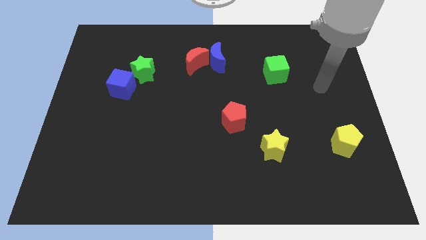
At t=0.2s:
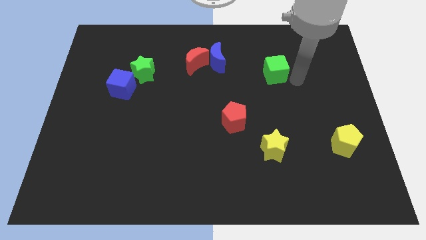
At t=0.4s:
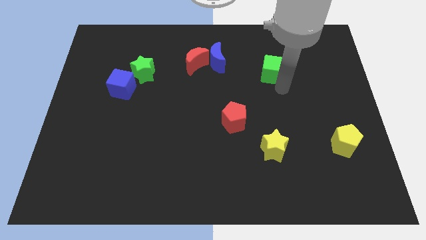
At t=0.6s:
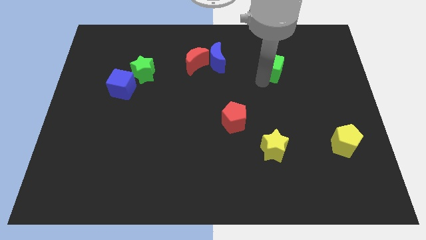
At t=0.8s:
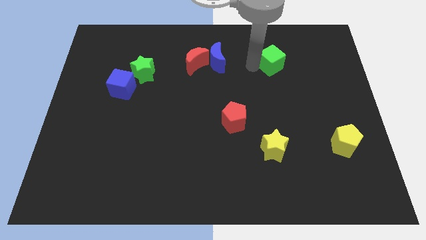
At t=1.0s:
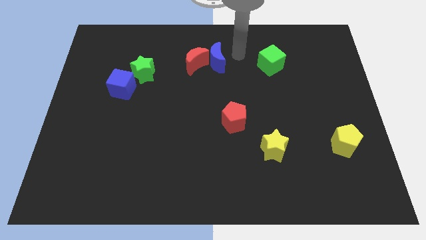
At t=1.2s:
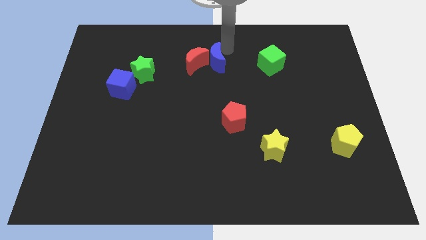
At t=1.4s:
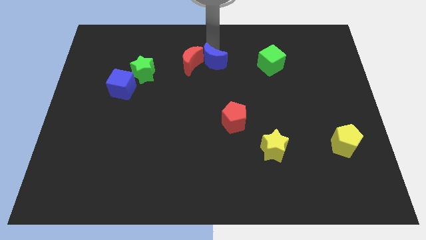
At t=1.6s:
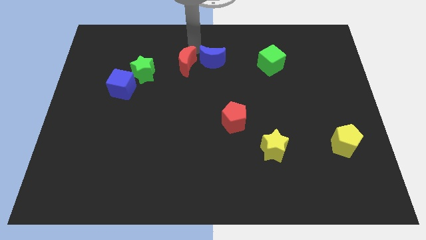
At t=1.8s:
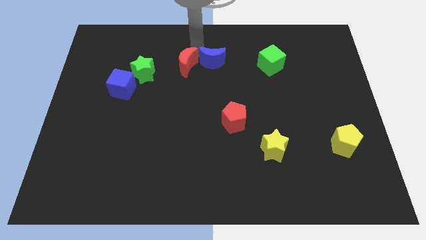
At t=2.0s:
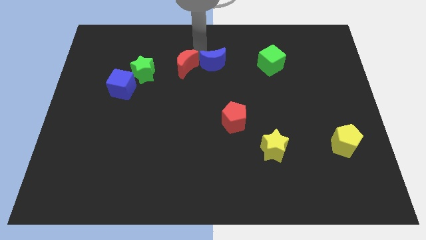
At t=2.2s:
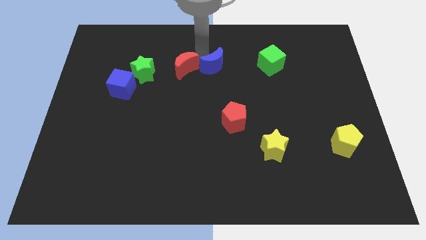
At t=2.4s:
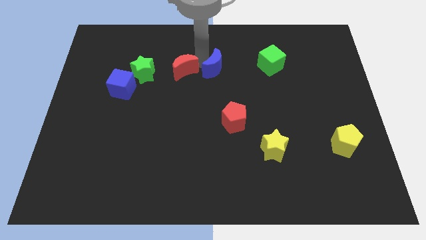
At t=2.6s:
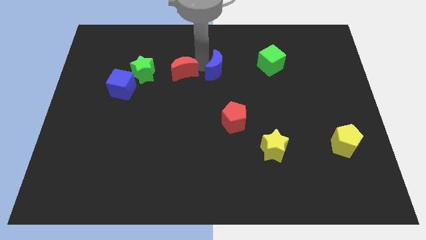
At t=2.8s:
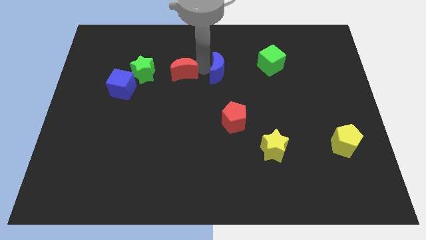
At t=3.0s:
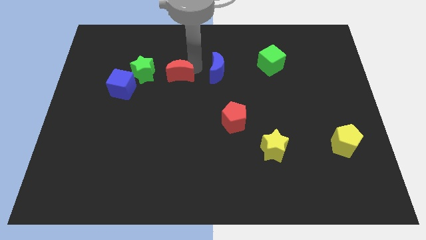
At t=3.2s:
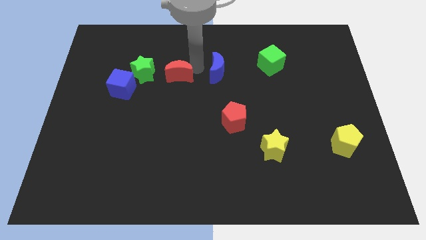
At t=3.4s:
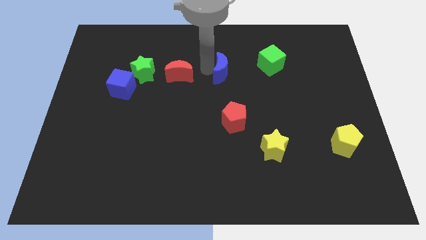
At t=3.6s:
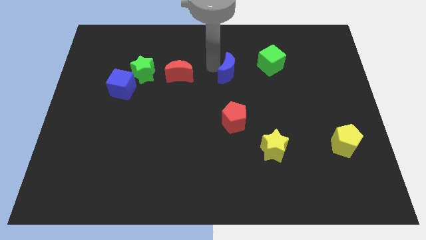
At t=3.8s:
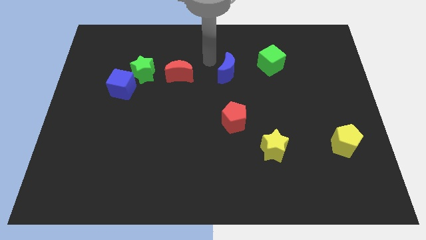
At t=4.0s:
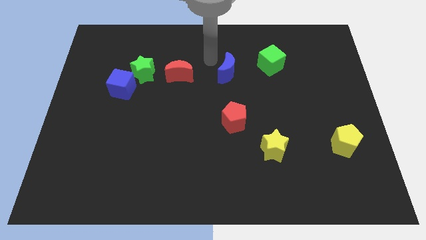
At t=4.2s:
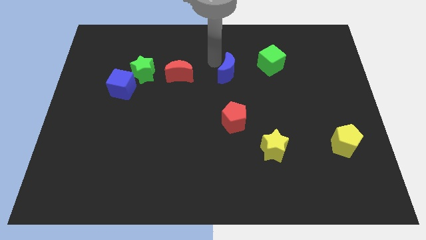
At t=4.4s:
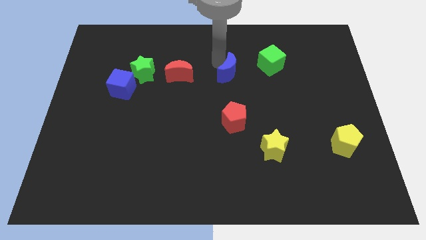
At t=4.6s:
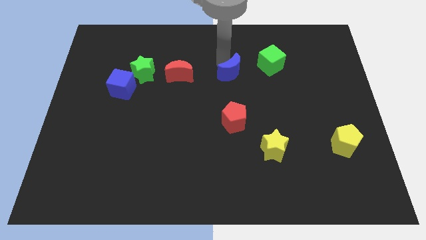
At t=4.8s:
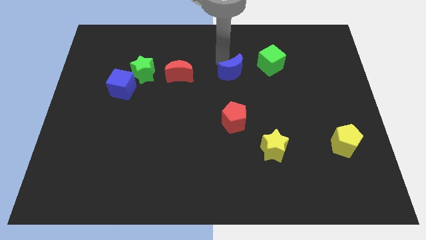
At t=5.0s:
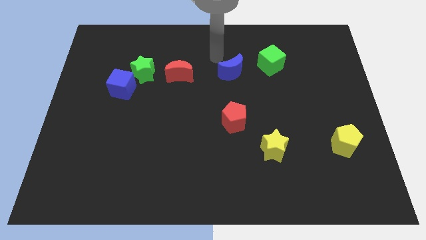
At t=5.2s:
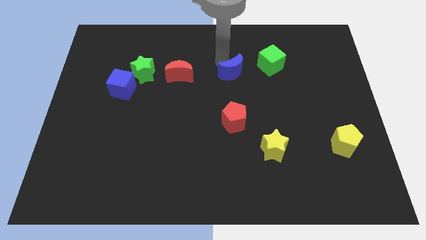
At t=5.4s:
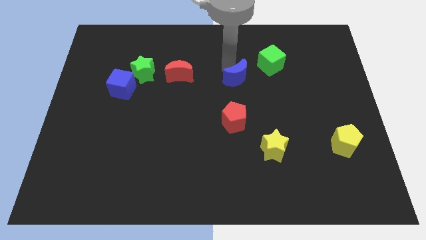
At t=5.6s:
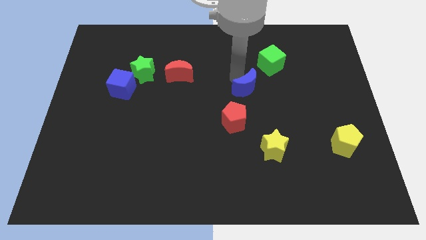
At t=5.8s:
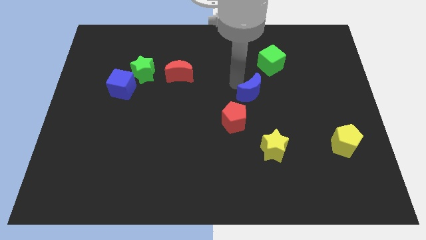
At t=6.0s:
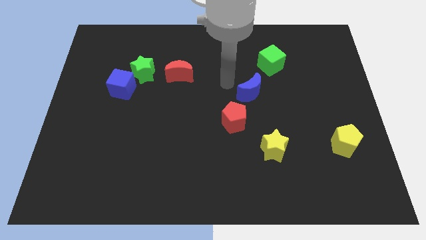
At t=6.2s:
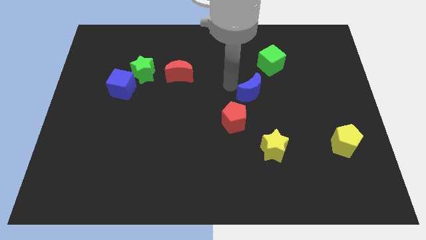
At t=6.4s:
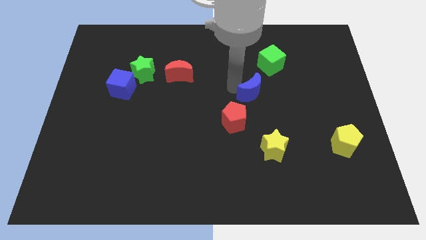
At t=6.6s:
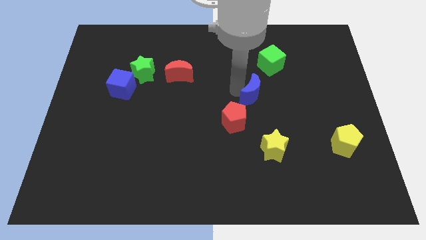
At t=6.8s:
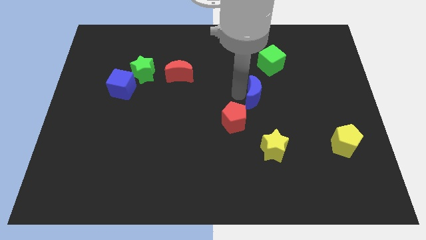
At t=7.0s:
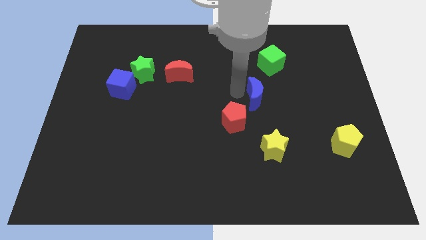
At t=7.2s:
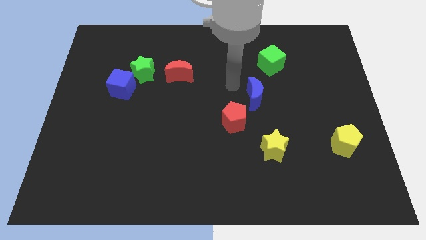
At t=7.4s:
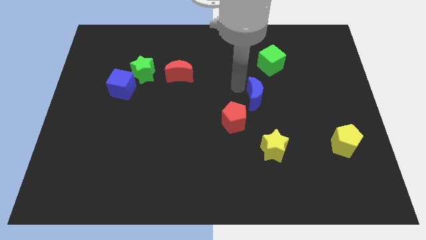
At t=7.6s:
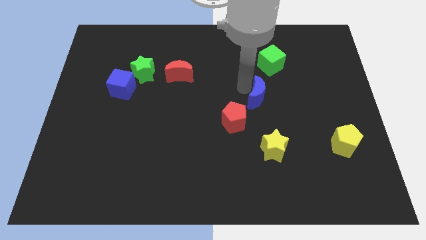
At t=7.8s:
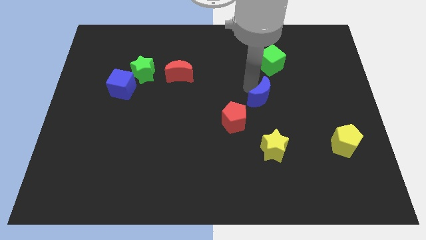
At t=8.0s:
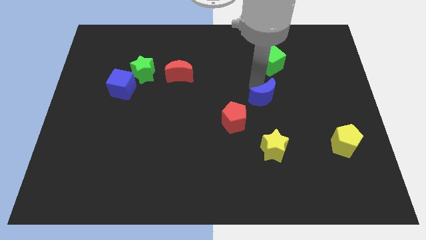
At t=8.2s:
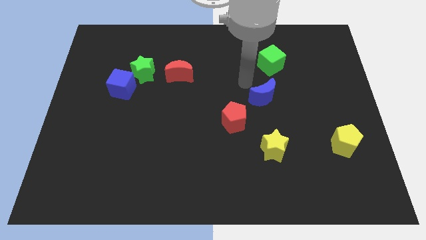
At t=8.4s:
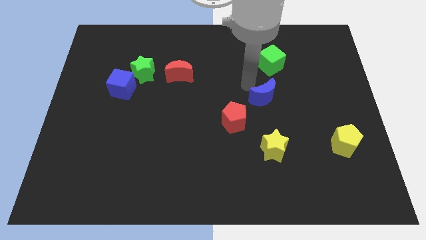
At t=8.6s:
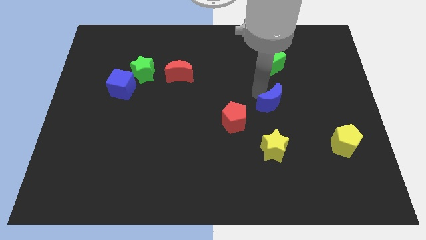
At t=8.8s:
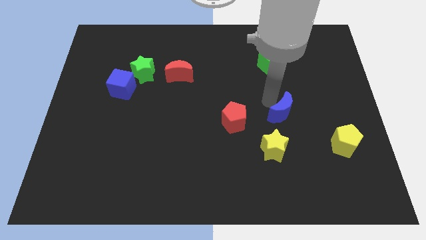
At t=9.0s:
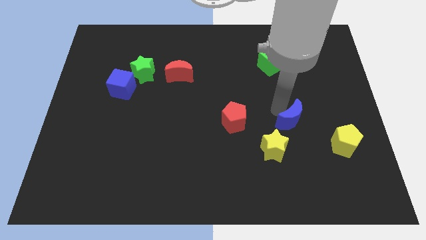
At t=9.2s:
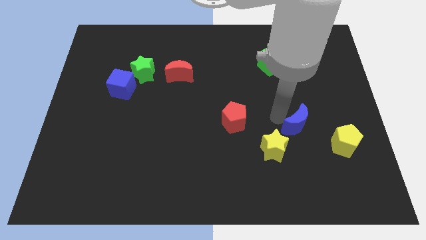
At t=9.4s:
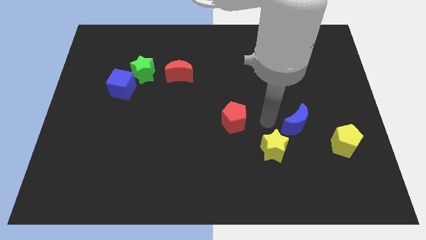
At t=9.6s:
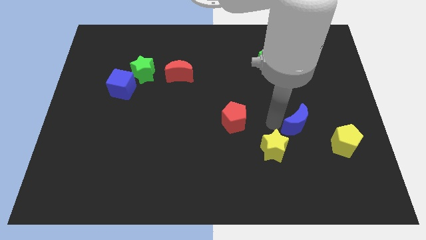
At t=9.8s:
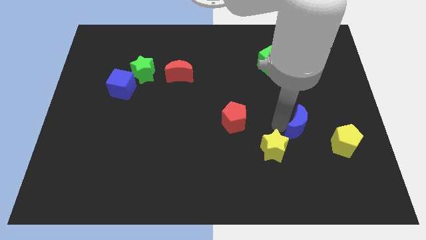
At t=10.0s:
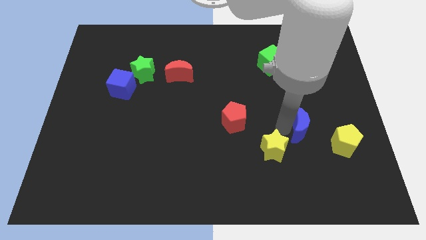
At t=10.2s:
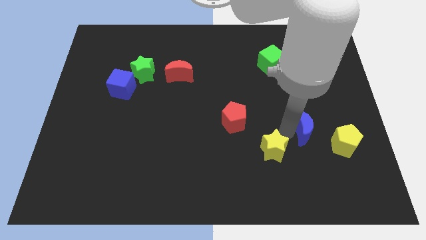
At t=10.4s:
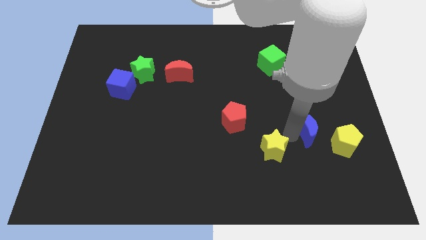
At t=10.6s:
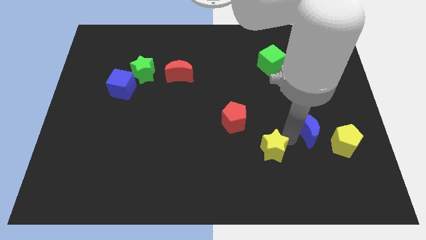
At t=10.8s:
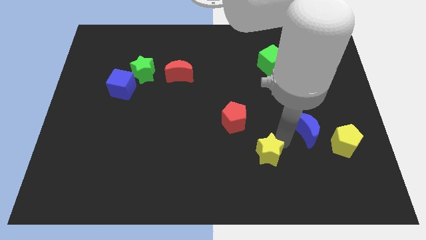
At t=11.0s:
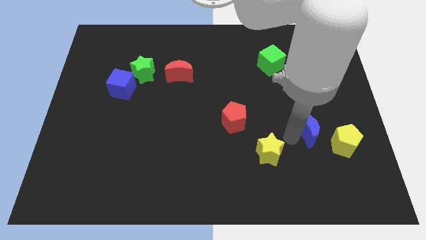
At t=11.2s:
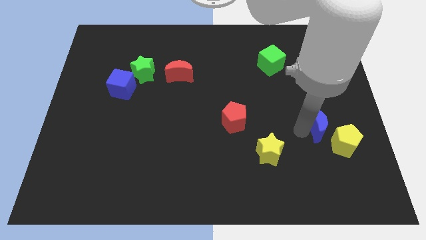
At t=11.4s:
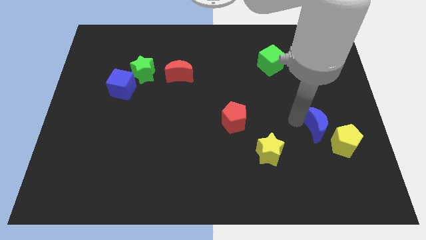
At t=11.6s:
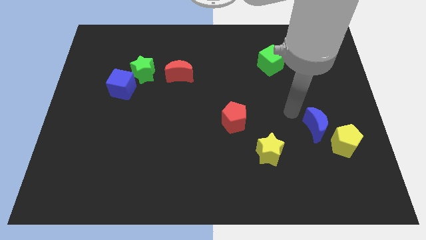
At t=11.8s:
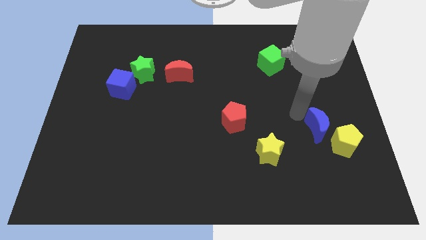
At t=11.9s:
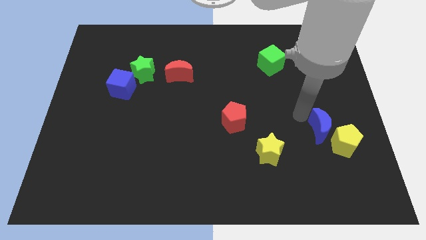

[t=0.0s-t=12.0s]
put the blue moon next to the yellow pentagon

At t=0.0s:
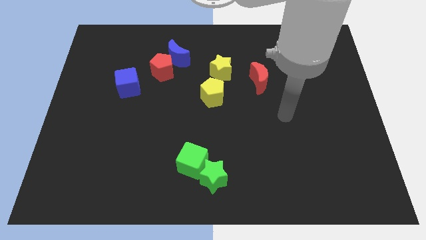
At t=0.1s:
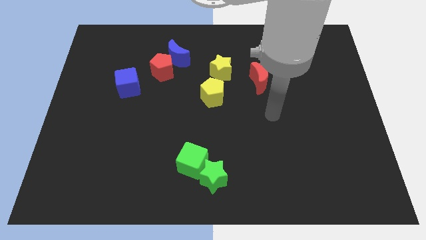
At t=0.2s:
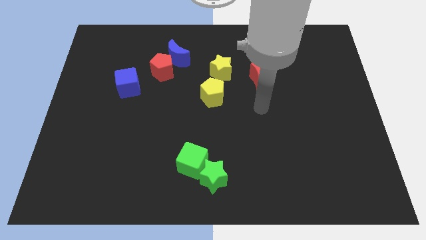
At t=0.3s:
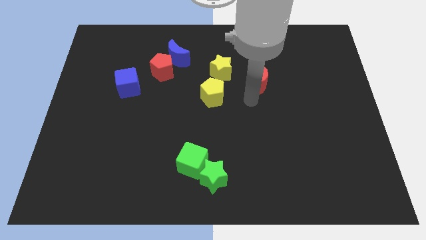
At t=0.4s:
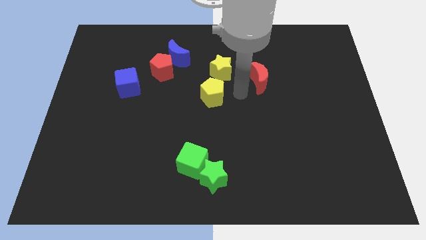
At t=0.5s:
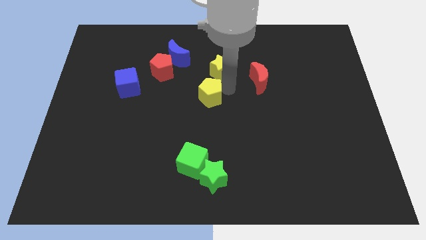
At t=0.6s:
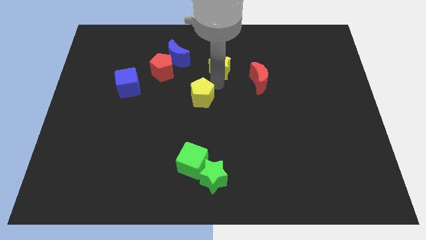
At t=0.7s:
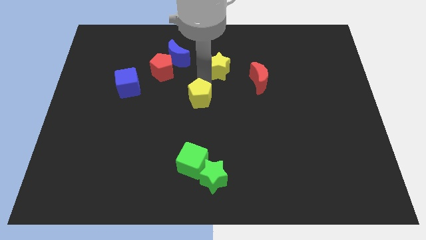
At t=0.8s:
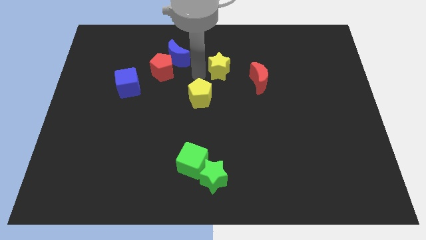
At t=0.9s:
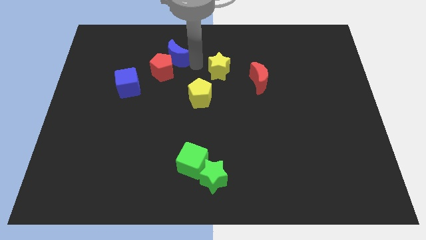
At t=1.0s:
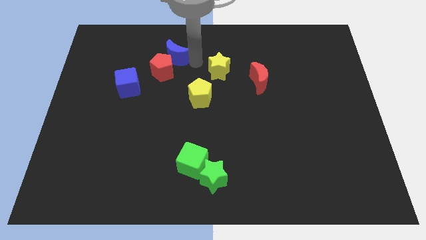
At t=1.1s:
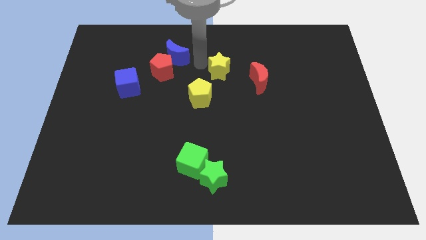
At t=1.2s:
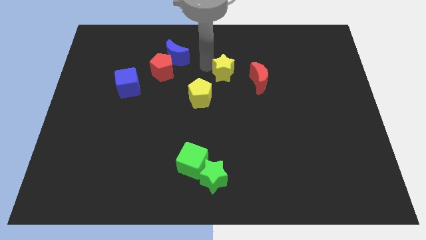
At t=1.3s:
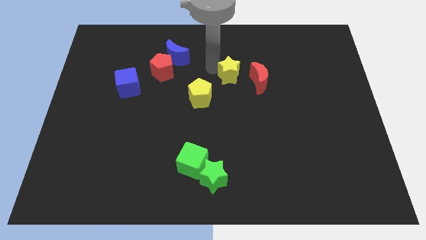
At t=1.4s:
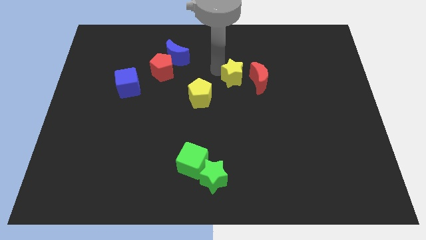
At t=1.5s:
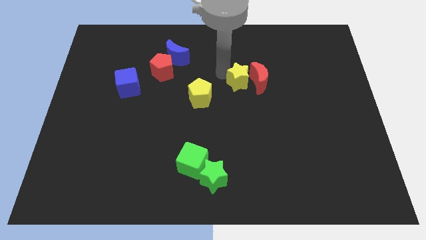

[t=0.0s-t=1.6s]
slide the yellow star to the red moon
